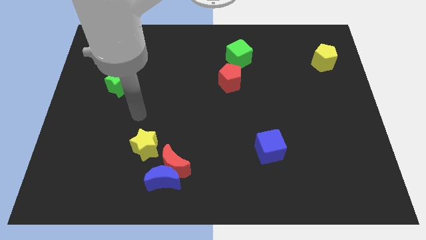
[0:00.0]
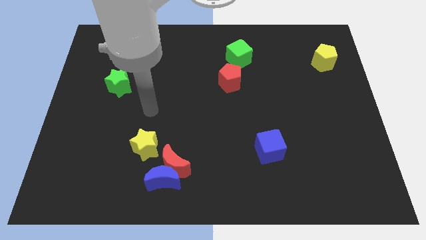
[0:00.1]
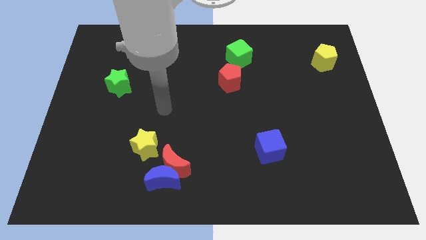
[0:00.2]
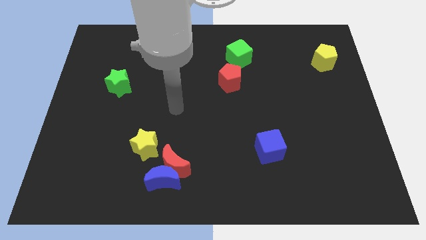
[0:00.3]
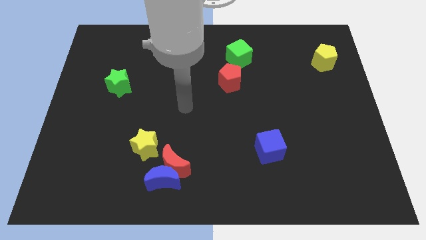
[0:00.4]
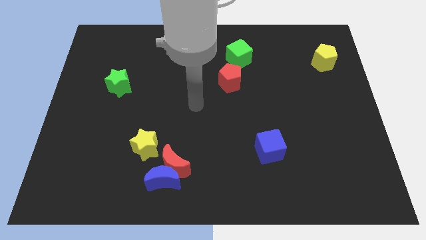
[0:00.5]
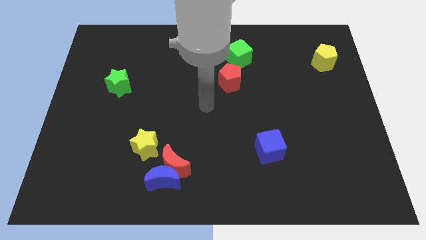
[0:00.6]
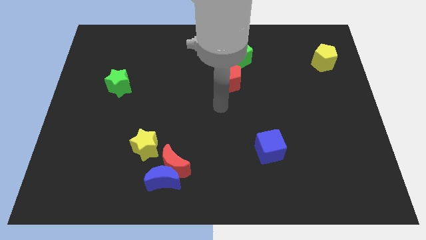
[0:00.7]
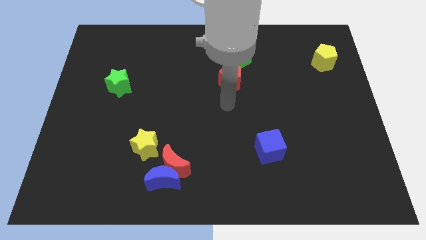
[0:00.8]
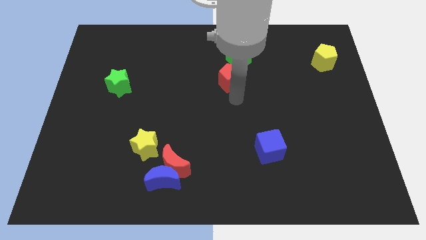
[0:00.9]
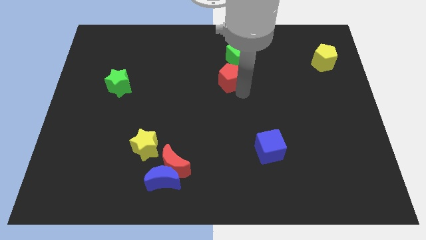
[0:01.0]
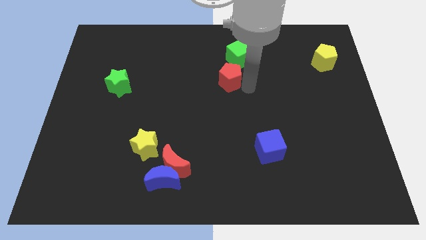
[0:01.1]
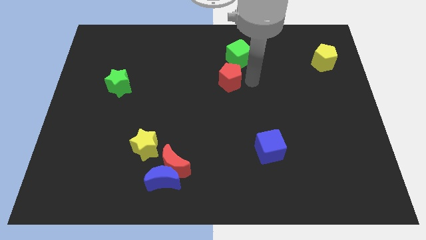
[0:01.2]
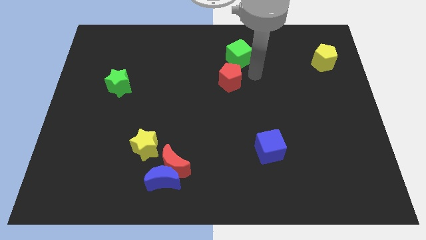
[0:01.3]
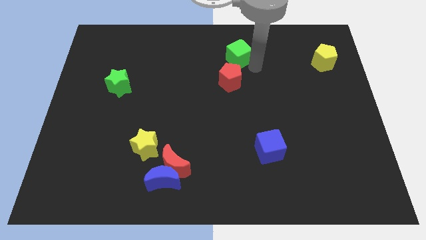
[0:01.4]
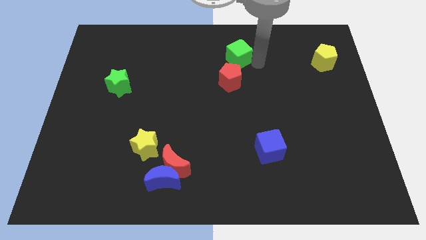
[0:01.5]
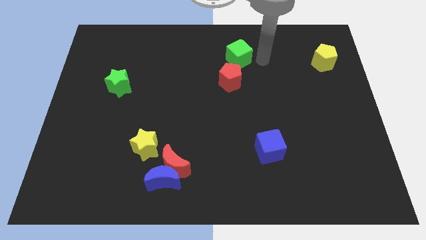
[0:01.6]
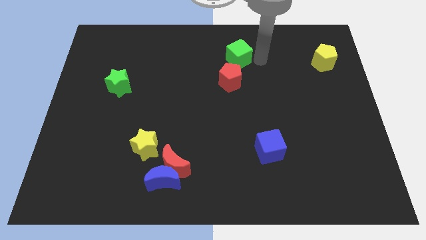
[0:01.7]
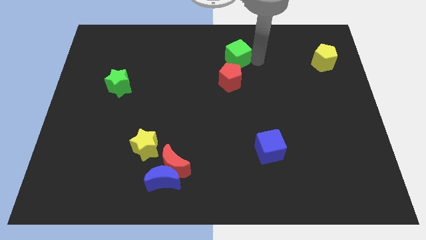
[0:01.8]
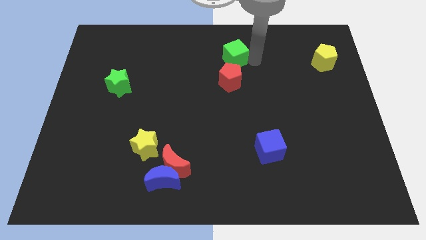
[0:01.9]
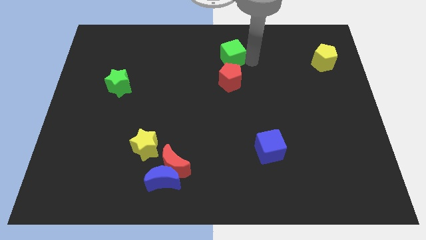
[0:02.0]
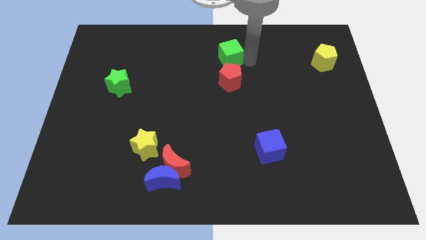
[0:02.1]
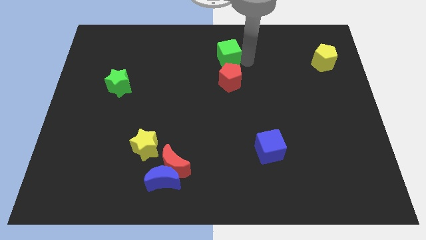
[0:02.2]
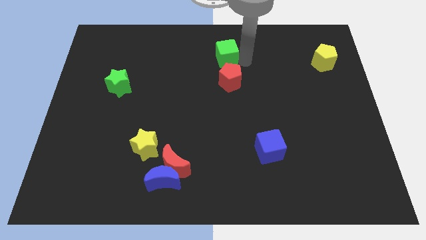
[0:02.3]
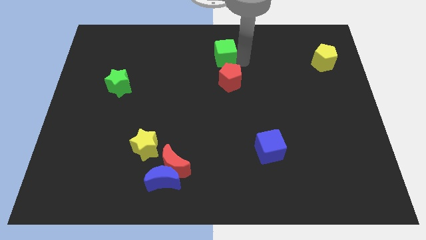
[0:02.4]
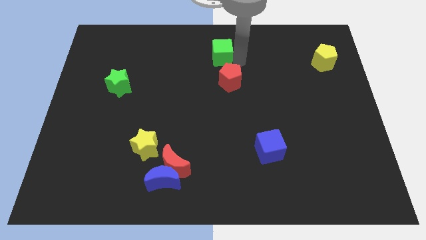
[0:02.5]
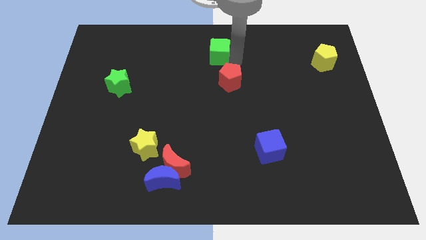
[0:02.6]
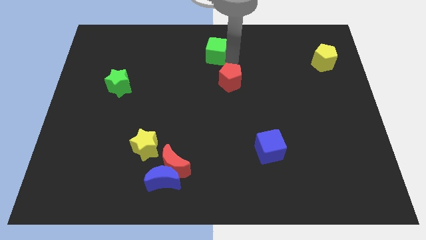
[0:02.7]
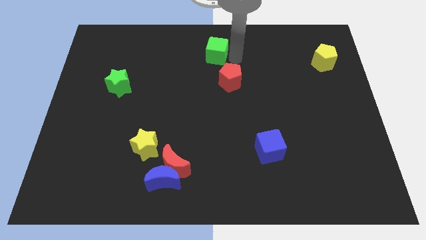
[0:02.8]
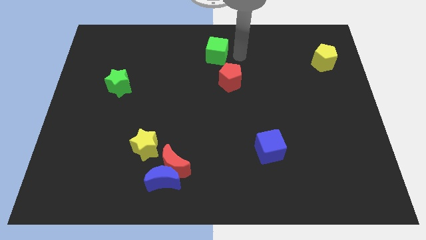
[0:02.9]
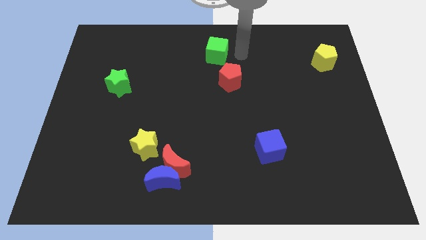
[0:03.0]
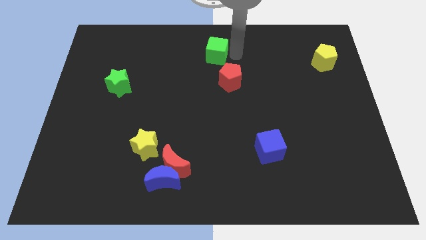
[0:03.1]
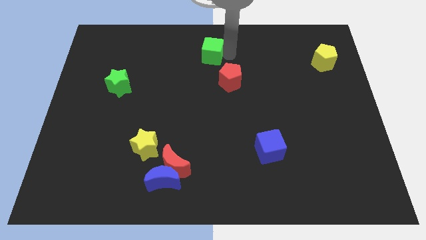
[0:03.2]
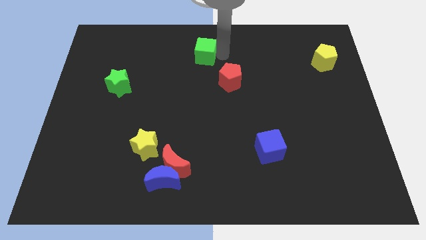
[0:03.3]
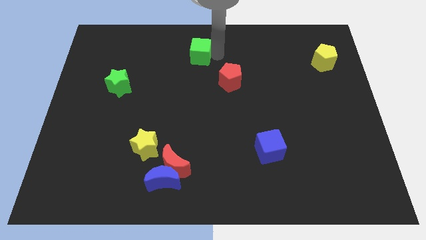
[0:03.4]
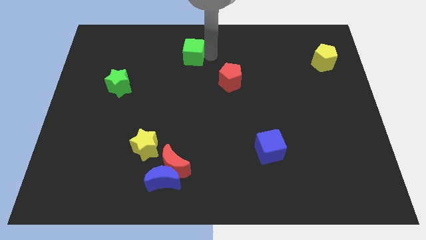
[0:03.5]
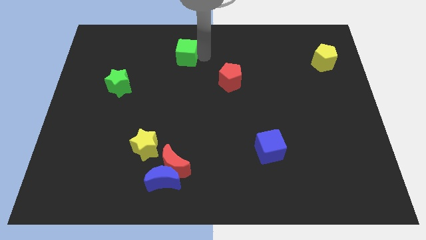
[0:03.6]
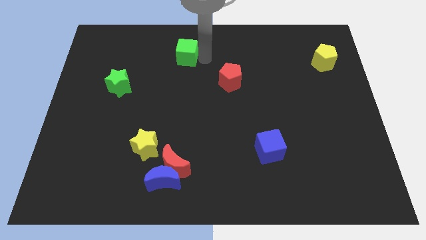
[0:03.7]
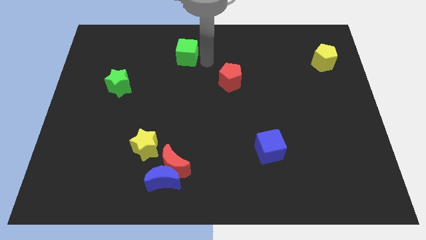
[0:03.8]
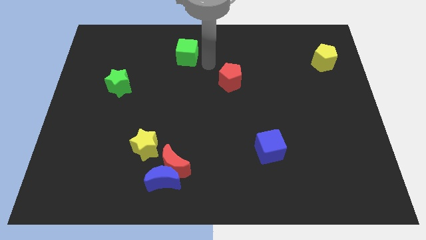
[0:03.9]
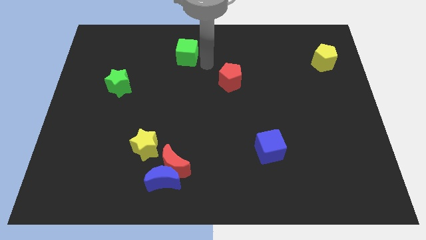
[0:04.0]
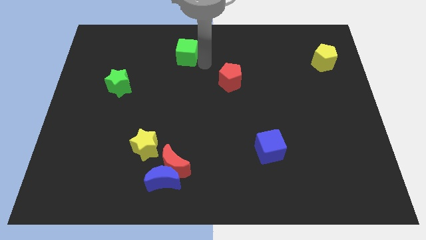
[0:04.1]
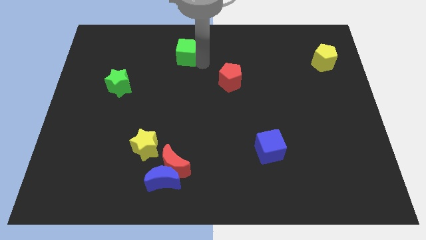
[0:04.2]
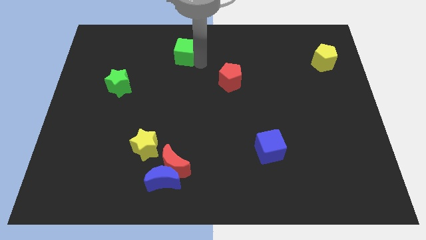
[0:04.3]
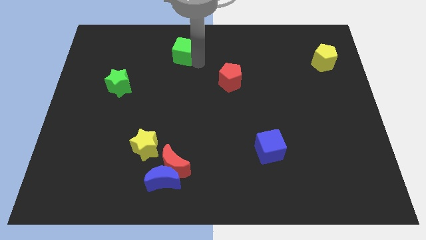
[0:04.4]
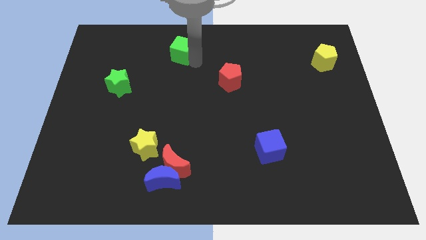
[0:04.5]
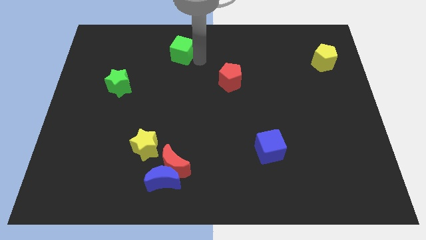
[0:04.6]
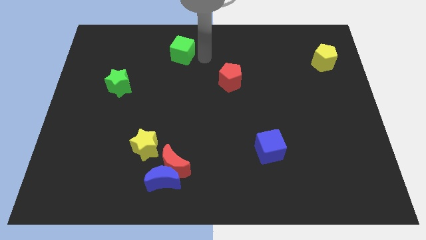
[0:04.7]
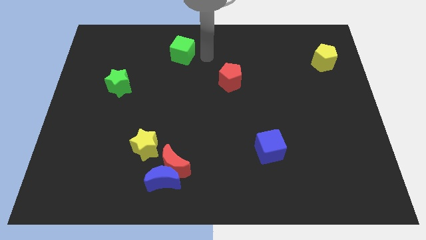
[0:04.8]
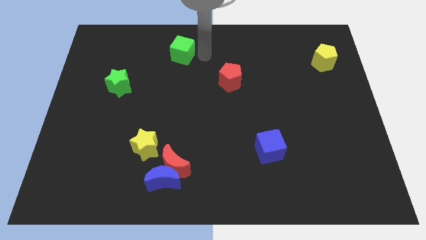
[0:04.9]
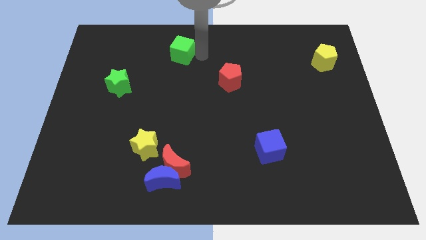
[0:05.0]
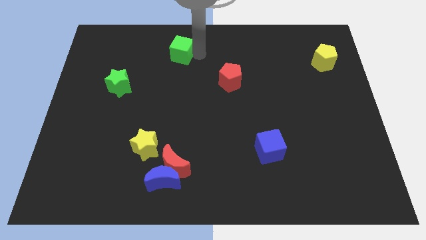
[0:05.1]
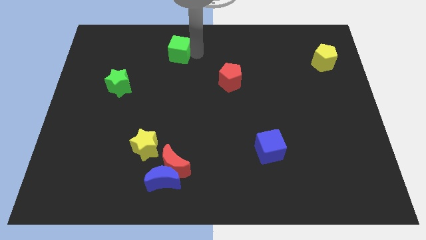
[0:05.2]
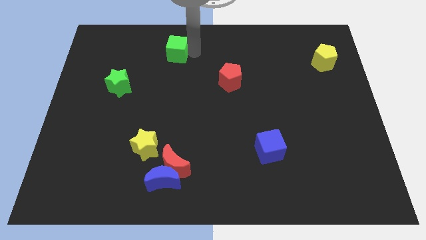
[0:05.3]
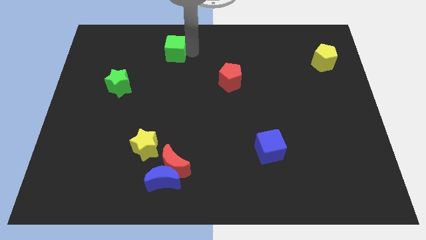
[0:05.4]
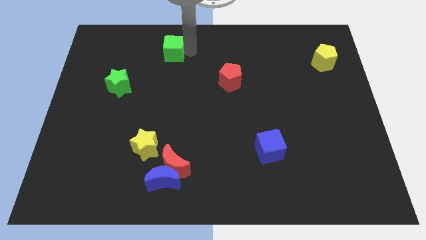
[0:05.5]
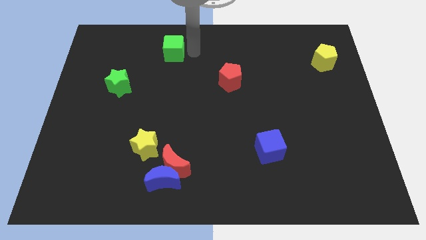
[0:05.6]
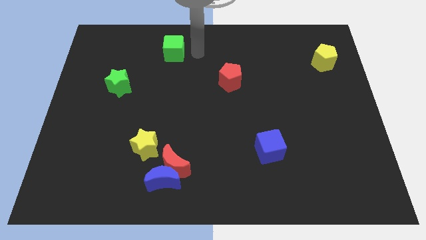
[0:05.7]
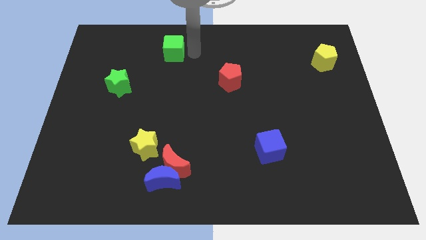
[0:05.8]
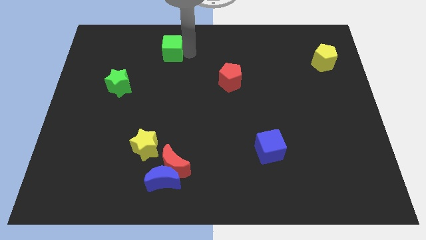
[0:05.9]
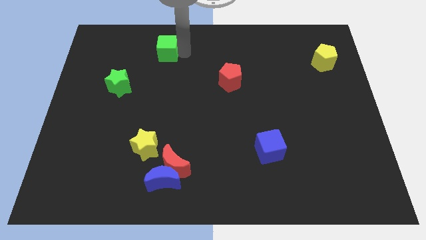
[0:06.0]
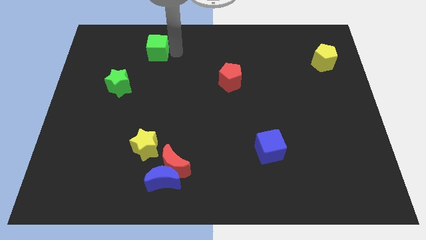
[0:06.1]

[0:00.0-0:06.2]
slide the green cube to the left

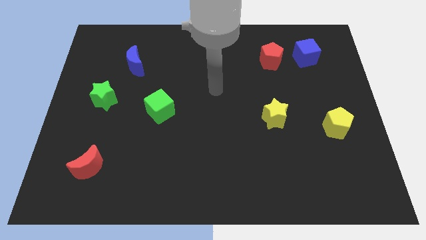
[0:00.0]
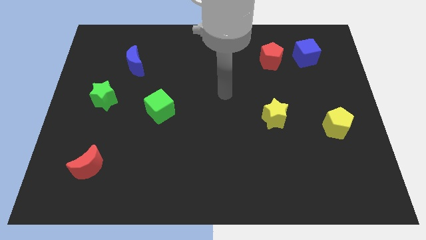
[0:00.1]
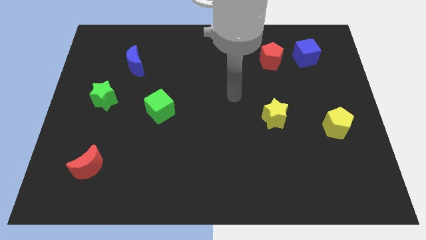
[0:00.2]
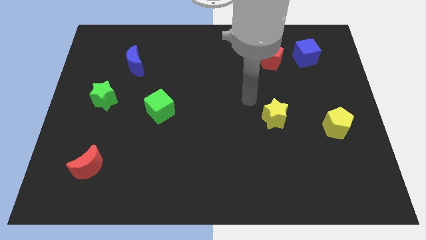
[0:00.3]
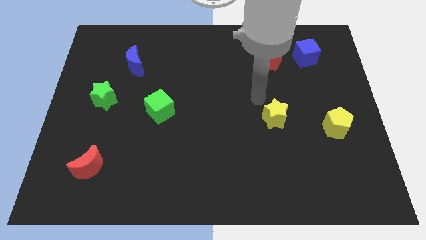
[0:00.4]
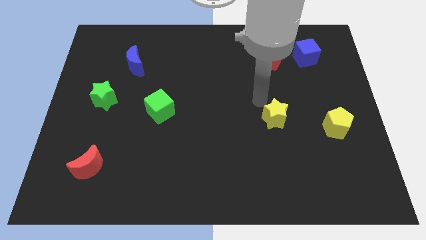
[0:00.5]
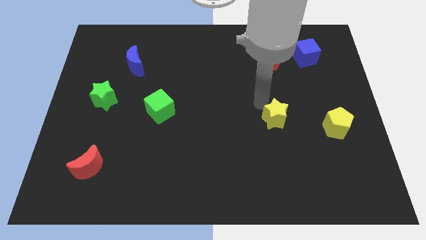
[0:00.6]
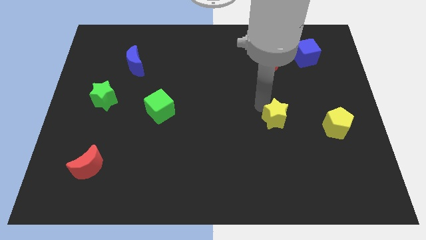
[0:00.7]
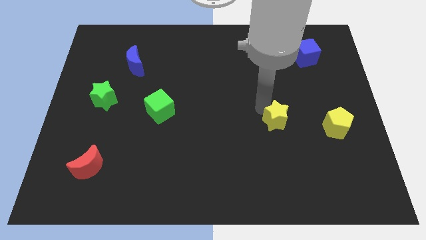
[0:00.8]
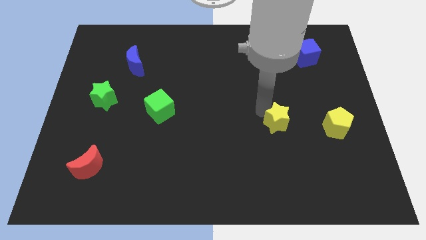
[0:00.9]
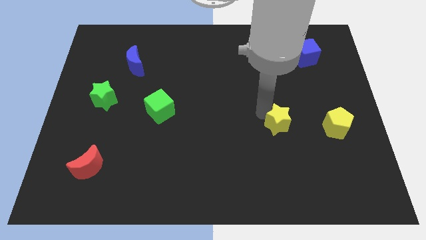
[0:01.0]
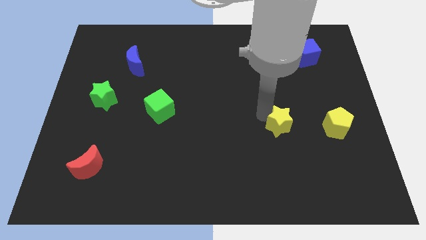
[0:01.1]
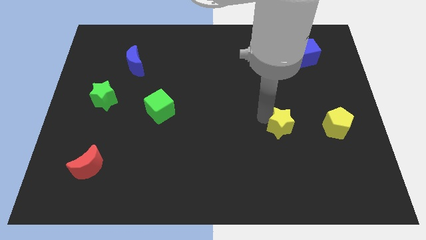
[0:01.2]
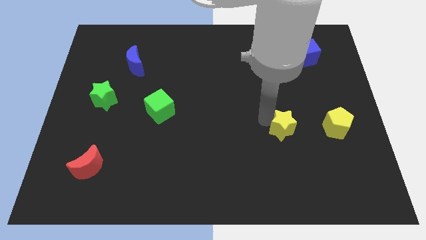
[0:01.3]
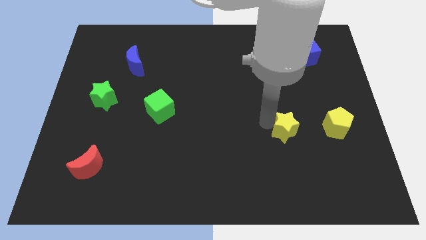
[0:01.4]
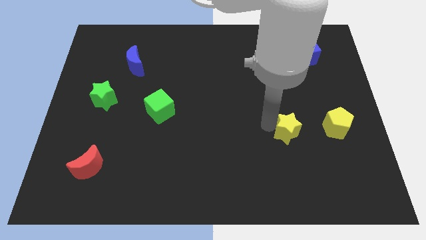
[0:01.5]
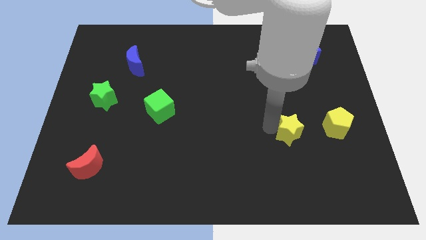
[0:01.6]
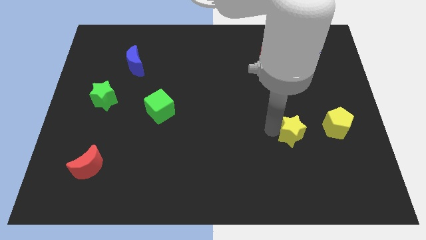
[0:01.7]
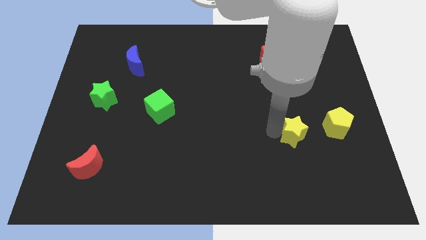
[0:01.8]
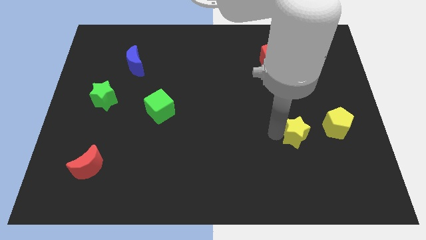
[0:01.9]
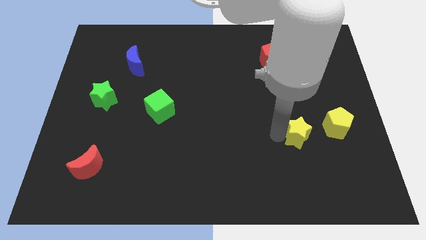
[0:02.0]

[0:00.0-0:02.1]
push the yellow star down and to the right diagonally somewhat

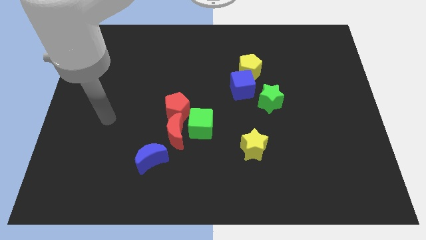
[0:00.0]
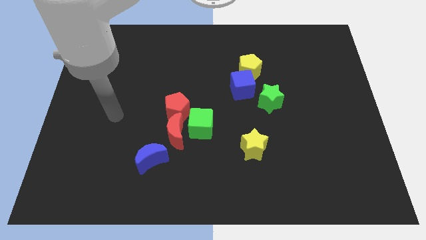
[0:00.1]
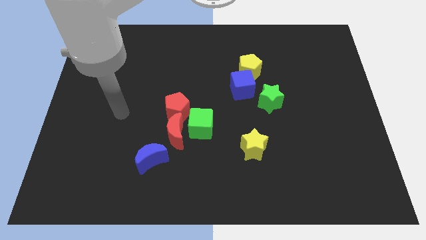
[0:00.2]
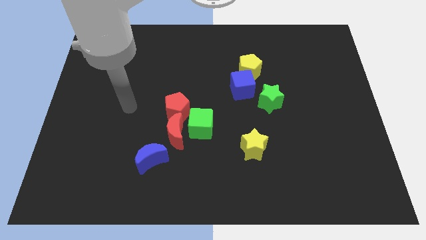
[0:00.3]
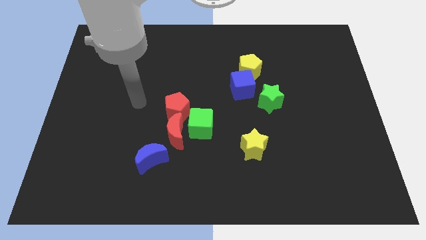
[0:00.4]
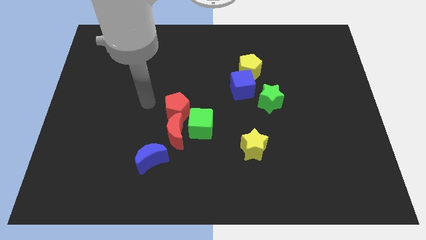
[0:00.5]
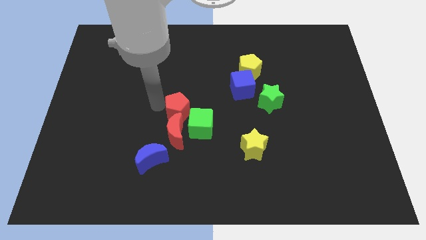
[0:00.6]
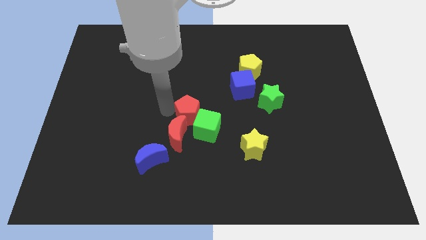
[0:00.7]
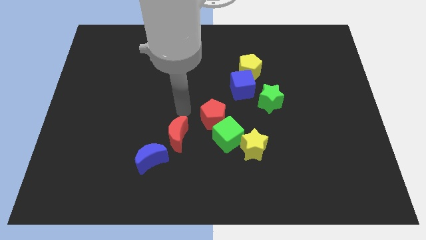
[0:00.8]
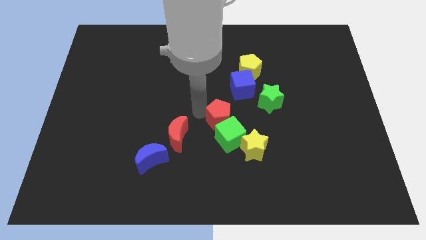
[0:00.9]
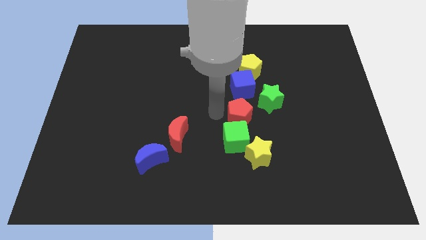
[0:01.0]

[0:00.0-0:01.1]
slightly move the green cube diagonally downwards and to the right
